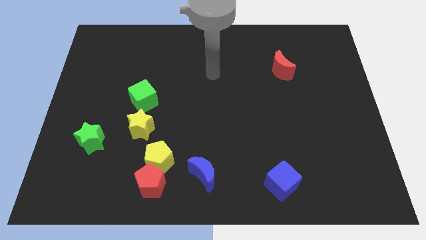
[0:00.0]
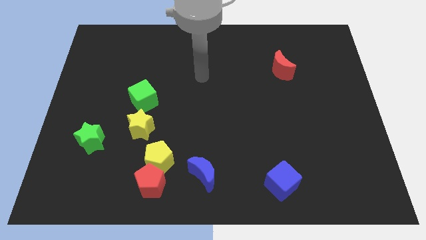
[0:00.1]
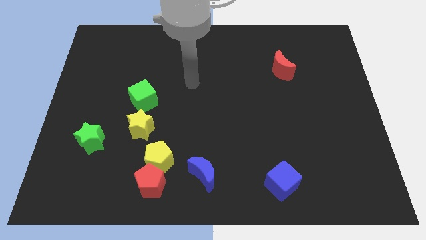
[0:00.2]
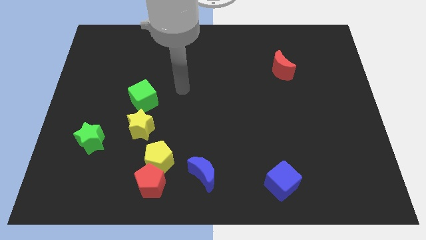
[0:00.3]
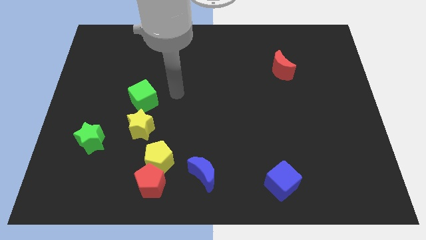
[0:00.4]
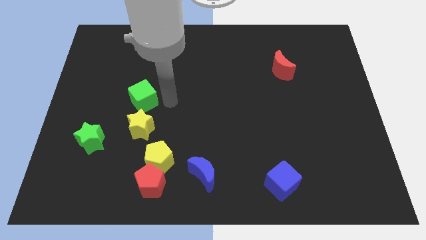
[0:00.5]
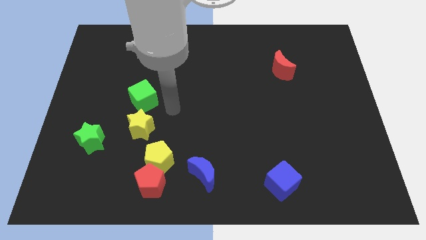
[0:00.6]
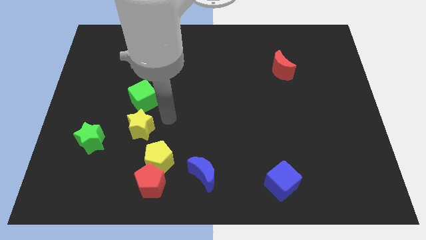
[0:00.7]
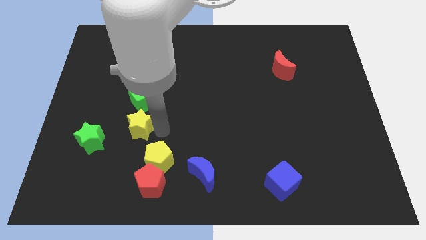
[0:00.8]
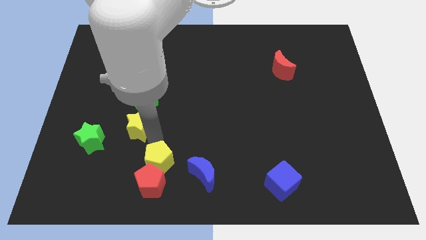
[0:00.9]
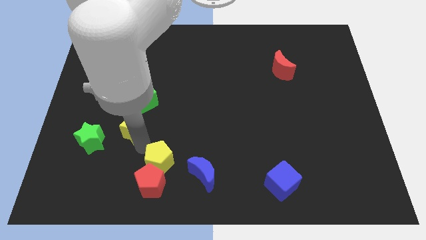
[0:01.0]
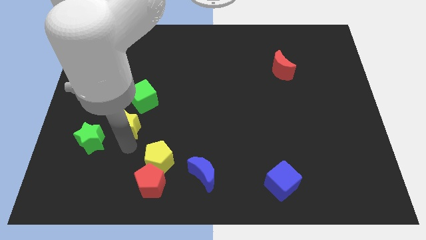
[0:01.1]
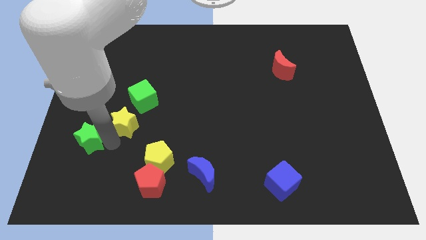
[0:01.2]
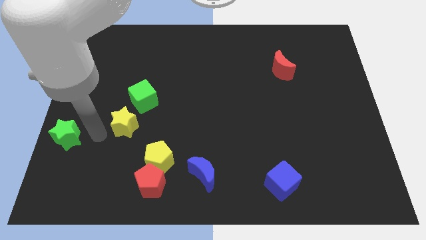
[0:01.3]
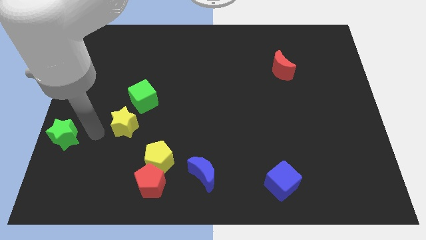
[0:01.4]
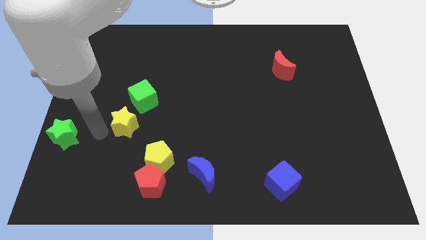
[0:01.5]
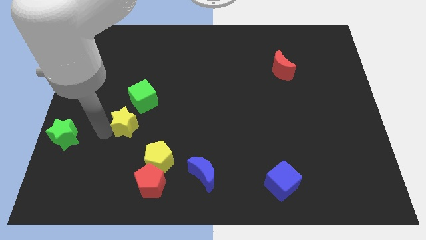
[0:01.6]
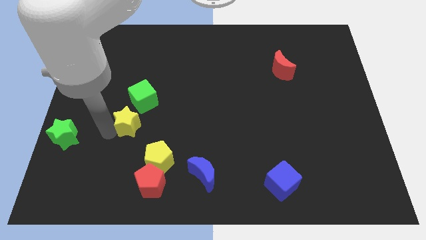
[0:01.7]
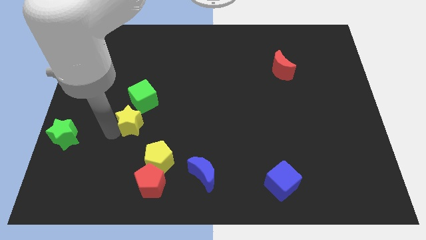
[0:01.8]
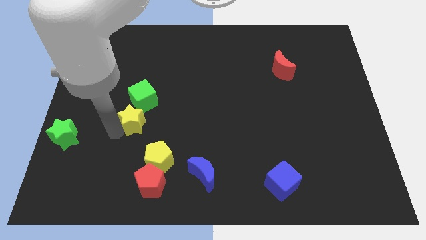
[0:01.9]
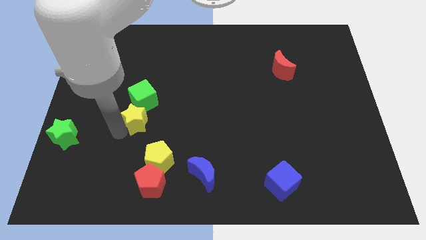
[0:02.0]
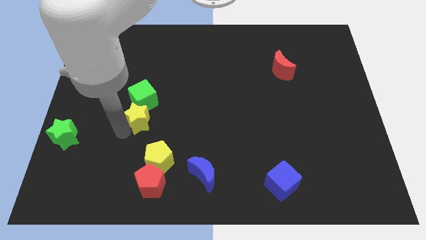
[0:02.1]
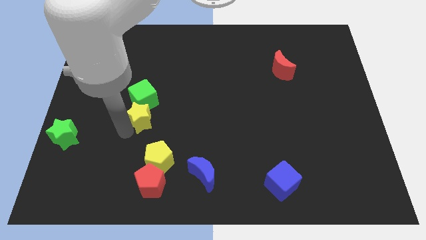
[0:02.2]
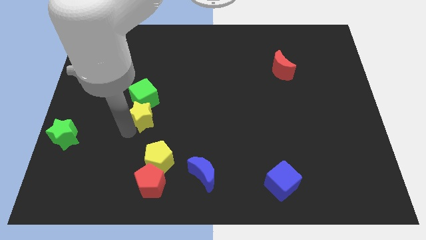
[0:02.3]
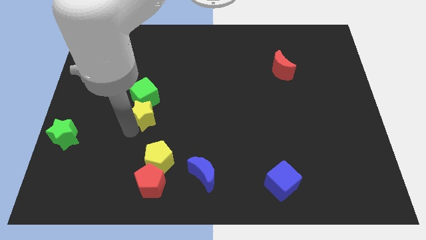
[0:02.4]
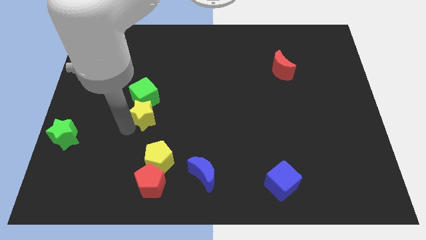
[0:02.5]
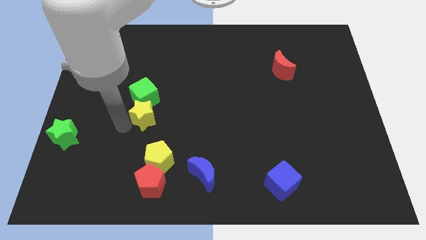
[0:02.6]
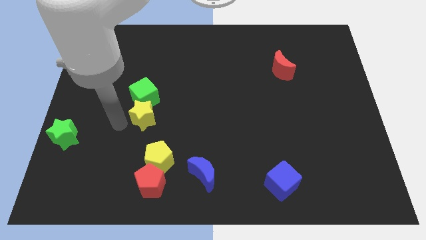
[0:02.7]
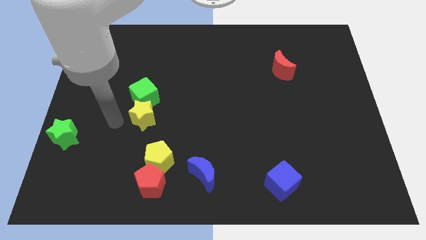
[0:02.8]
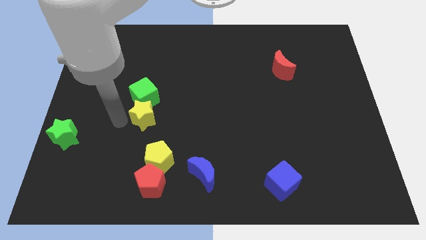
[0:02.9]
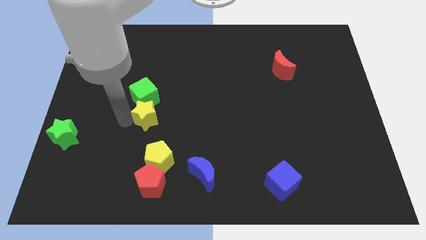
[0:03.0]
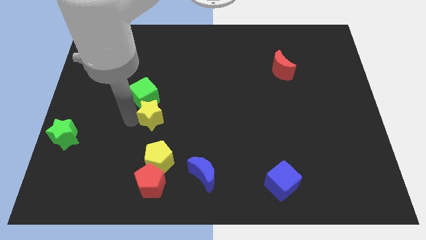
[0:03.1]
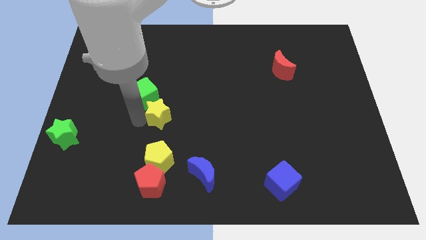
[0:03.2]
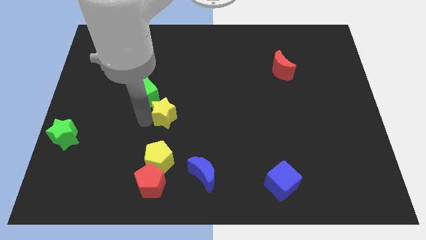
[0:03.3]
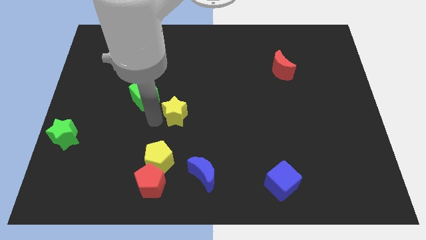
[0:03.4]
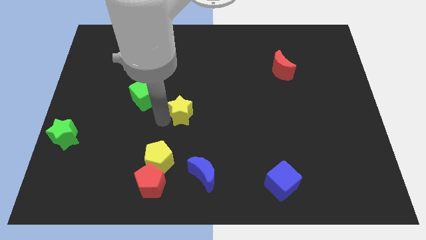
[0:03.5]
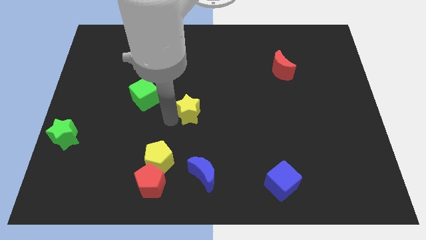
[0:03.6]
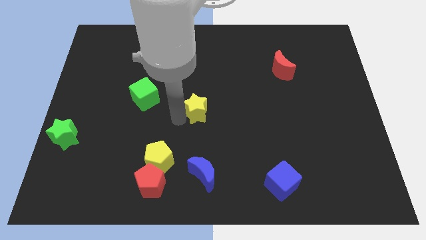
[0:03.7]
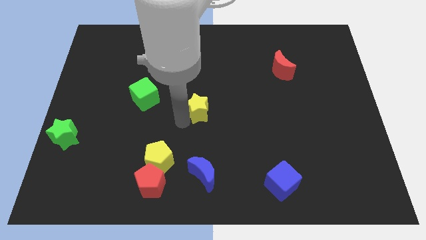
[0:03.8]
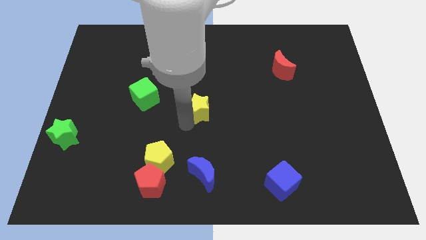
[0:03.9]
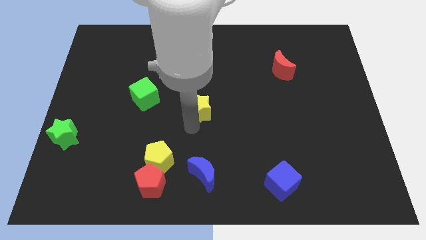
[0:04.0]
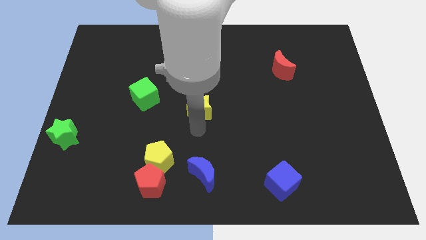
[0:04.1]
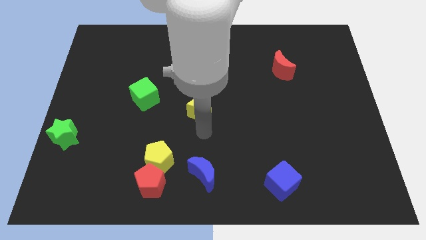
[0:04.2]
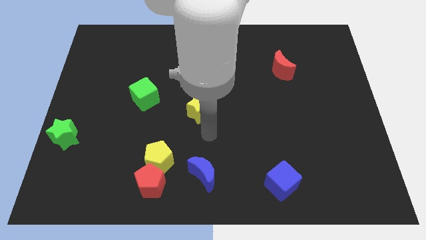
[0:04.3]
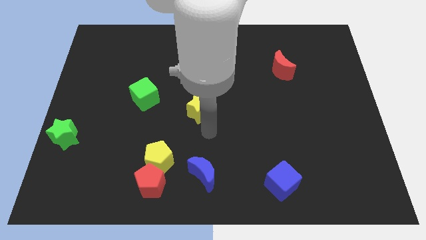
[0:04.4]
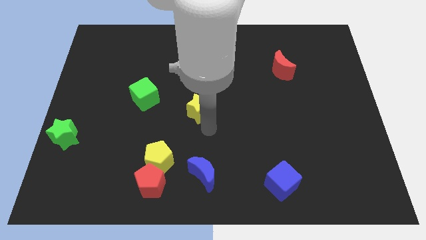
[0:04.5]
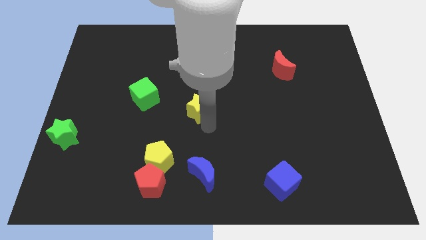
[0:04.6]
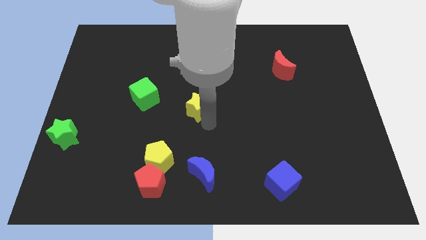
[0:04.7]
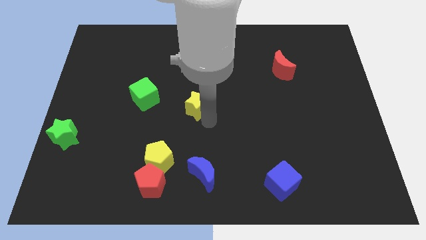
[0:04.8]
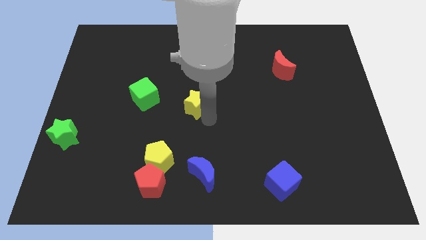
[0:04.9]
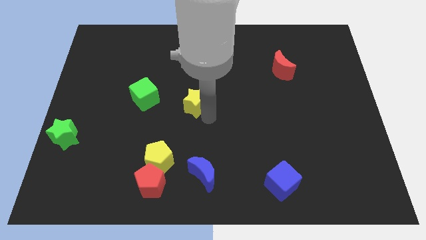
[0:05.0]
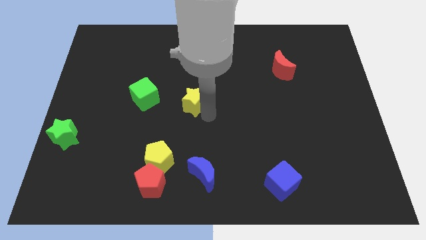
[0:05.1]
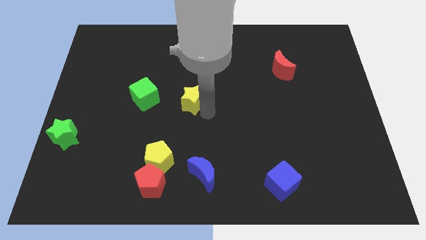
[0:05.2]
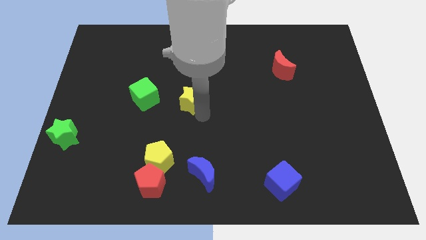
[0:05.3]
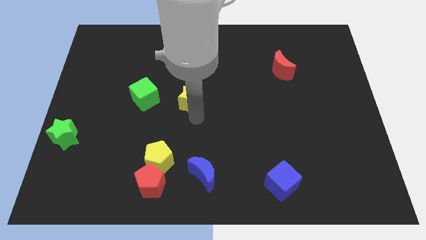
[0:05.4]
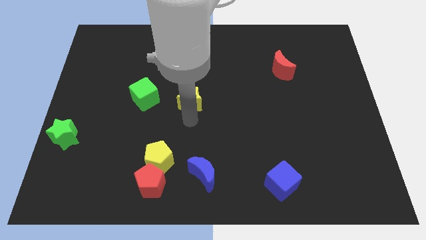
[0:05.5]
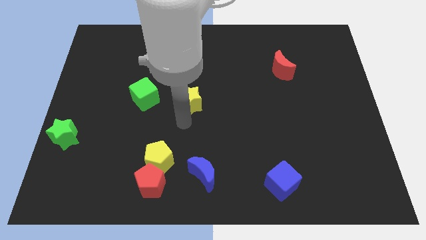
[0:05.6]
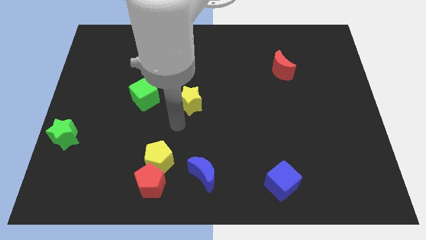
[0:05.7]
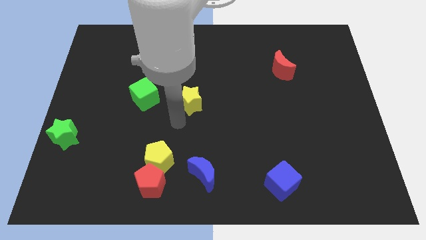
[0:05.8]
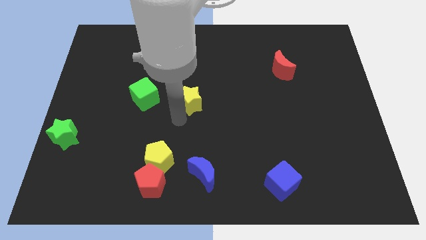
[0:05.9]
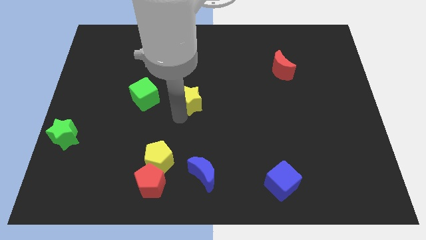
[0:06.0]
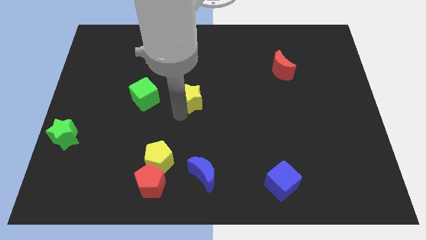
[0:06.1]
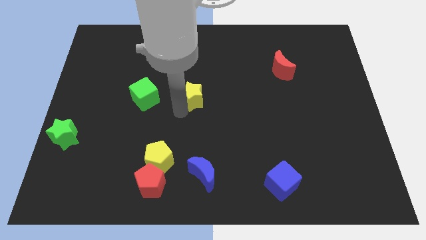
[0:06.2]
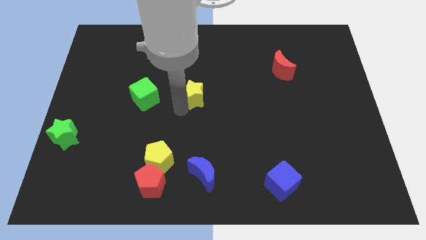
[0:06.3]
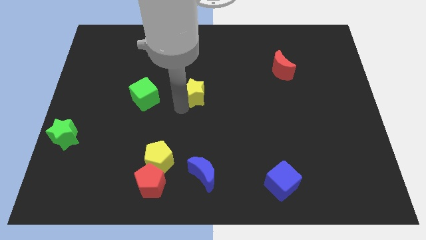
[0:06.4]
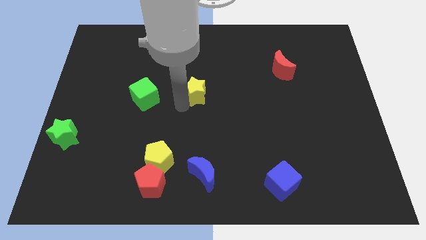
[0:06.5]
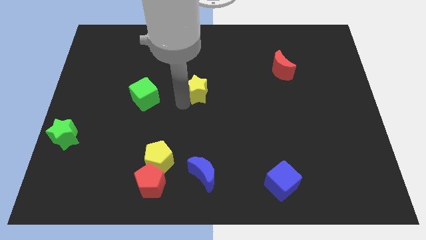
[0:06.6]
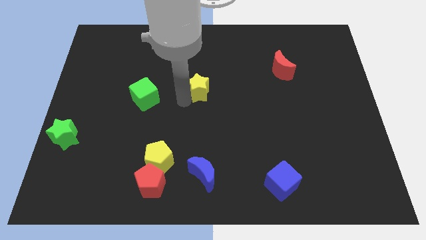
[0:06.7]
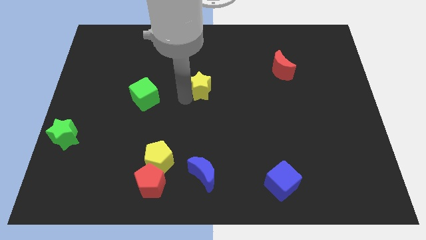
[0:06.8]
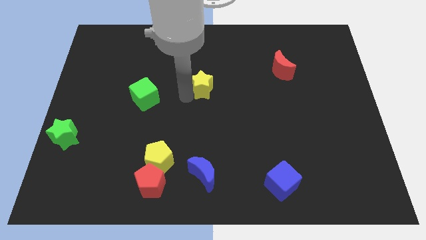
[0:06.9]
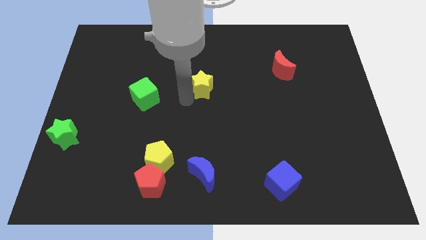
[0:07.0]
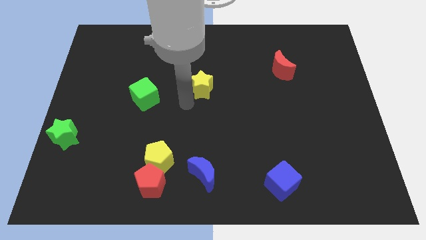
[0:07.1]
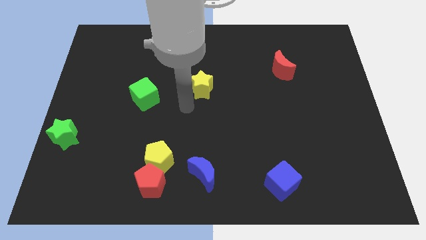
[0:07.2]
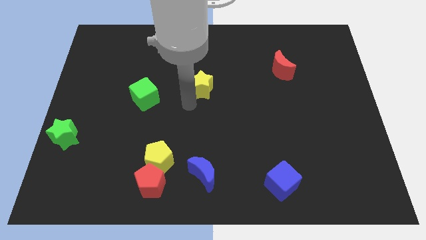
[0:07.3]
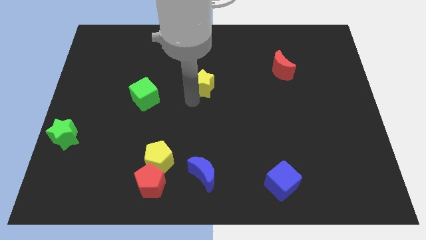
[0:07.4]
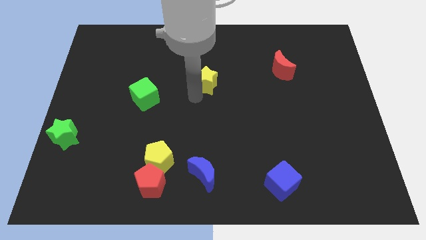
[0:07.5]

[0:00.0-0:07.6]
push the yellow star up and to the right
